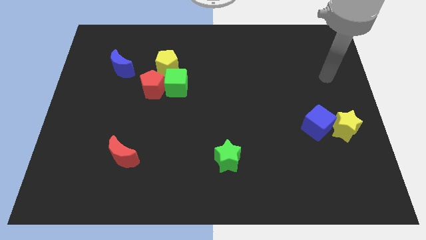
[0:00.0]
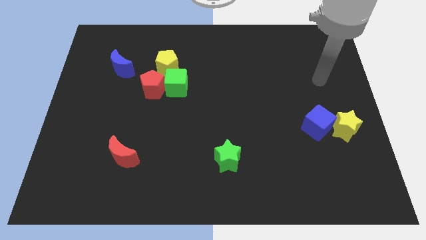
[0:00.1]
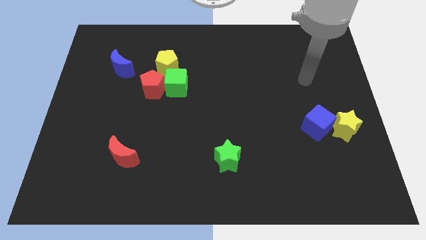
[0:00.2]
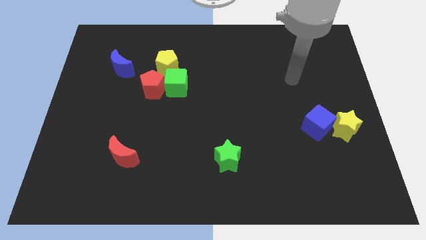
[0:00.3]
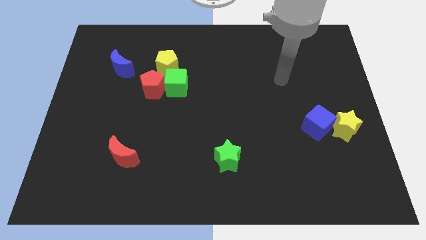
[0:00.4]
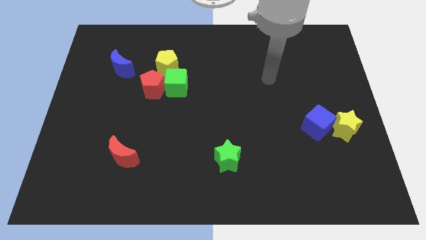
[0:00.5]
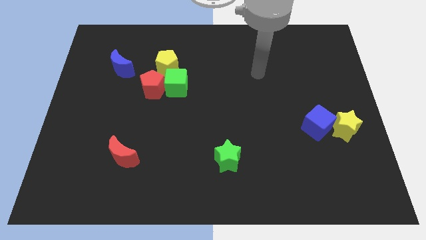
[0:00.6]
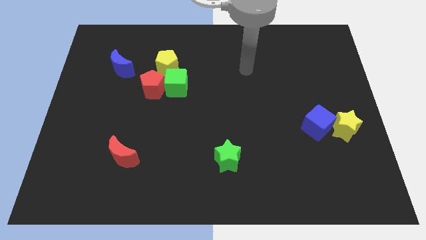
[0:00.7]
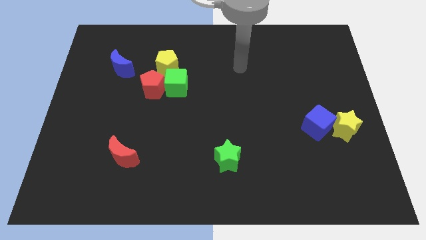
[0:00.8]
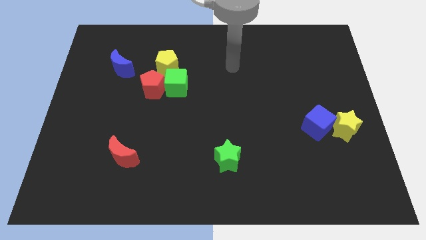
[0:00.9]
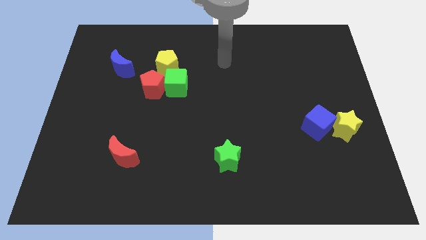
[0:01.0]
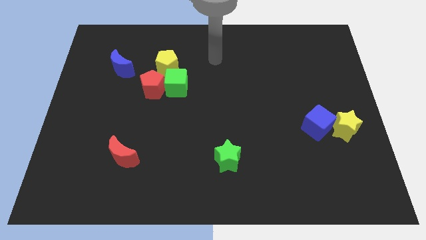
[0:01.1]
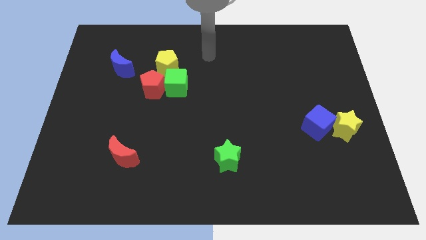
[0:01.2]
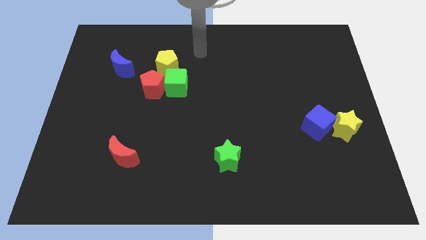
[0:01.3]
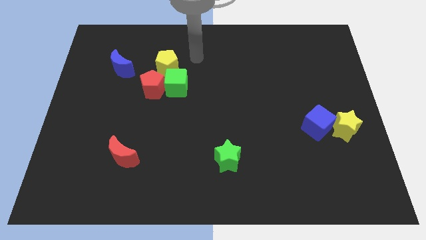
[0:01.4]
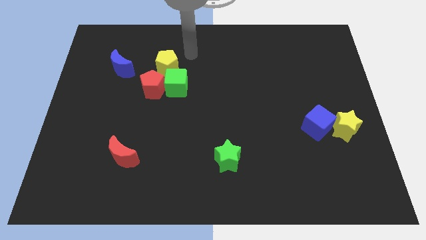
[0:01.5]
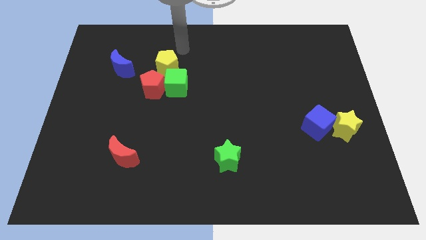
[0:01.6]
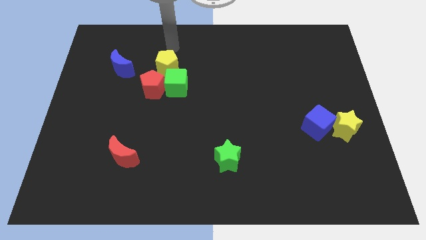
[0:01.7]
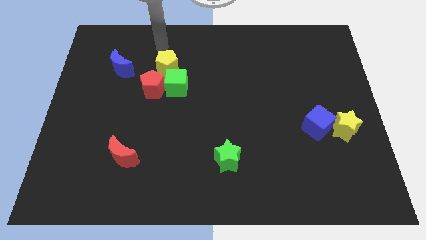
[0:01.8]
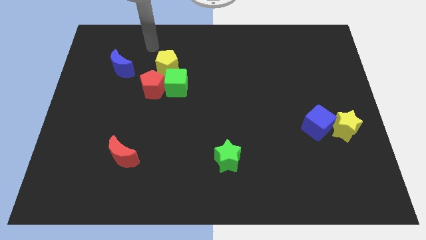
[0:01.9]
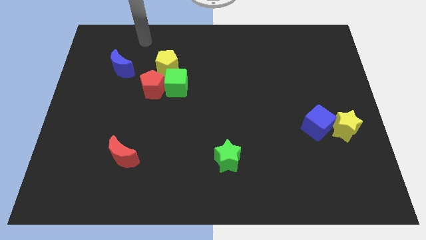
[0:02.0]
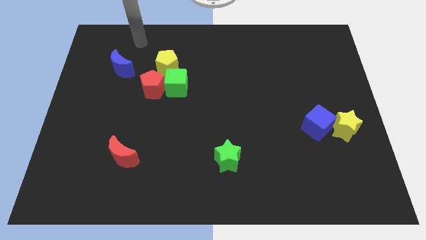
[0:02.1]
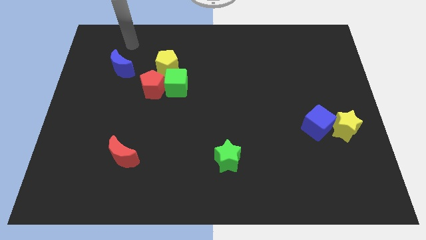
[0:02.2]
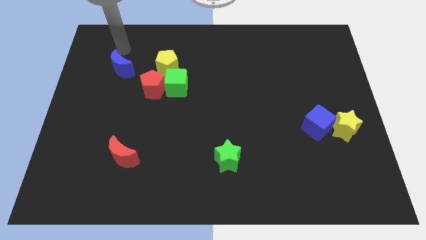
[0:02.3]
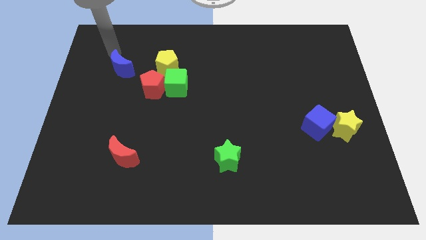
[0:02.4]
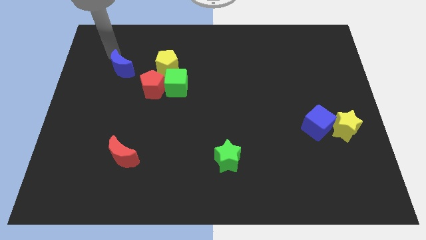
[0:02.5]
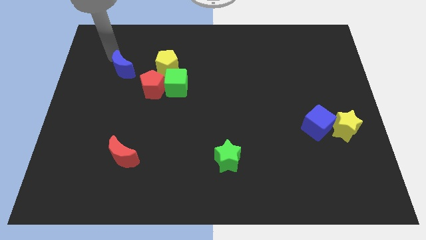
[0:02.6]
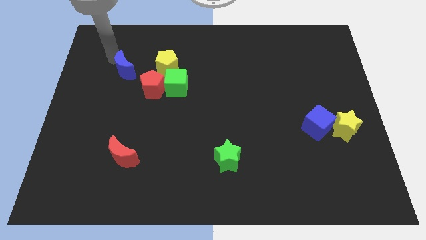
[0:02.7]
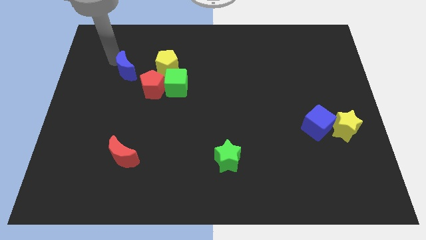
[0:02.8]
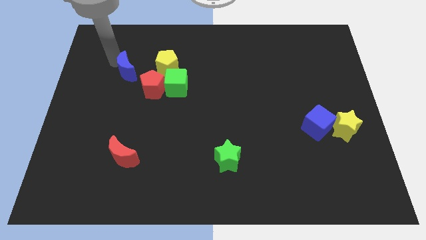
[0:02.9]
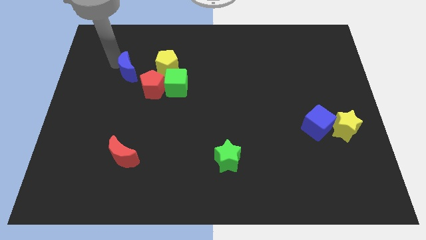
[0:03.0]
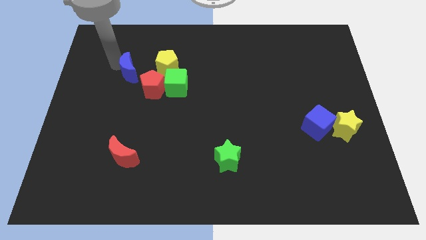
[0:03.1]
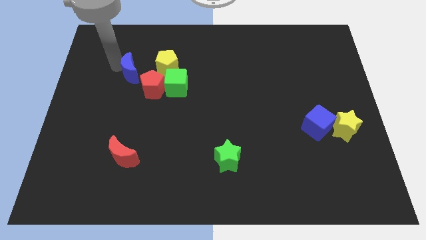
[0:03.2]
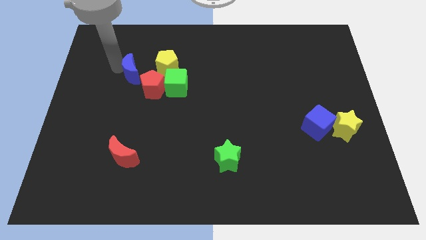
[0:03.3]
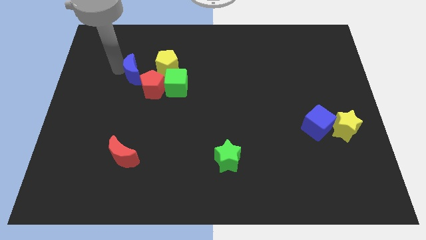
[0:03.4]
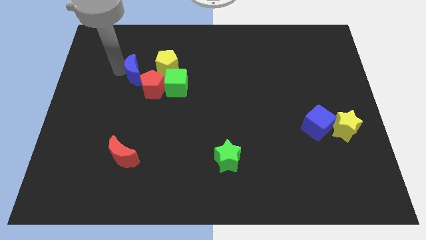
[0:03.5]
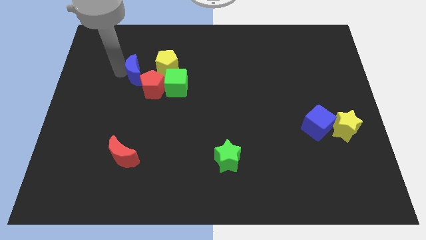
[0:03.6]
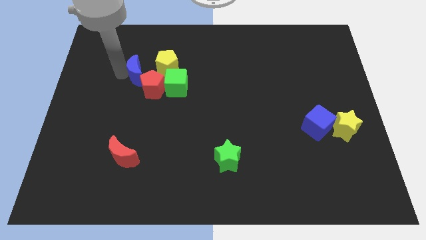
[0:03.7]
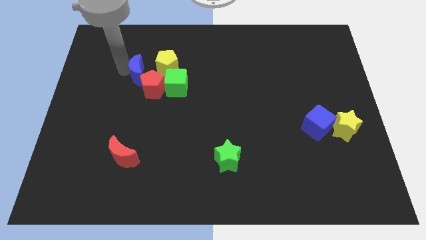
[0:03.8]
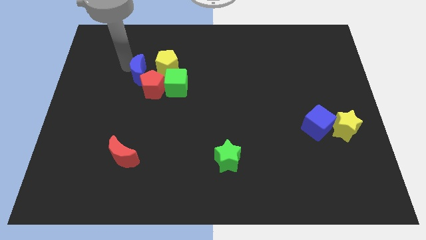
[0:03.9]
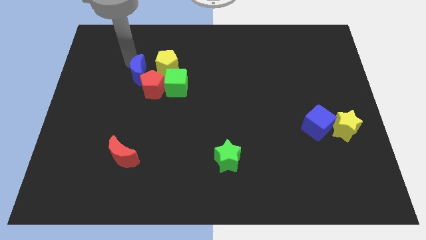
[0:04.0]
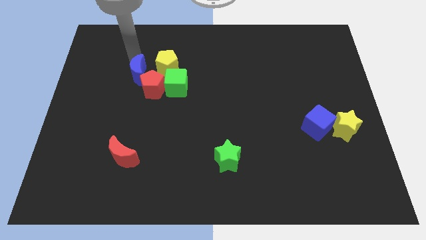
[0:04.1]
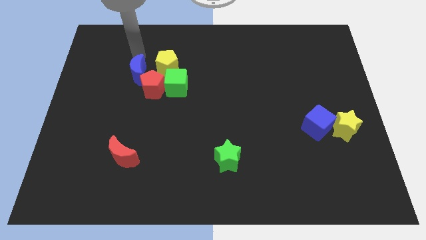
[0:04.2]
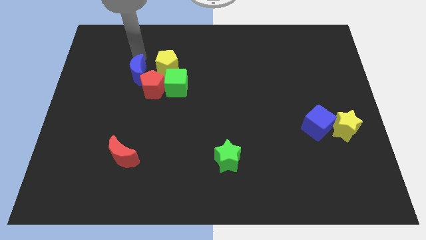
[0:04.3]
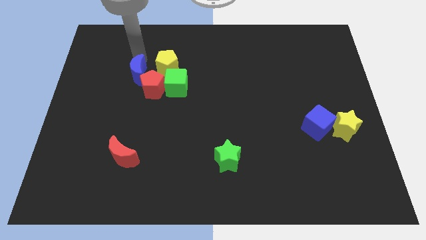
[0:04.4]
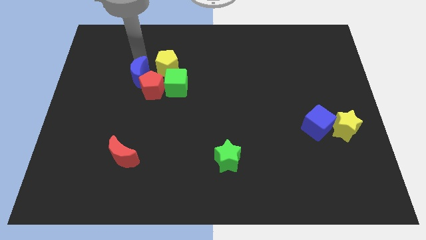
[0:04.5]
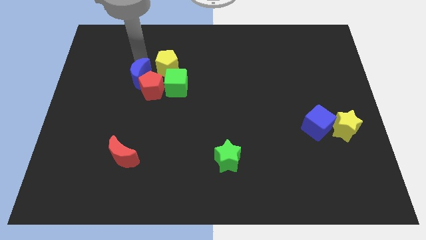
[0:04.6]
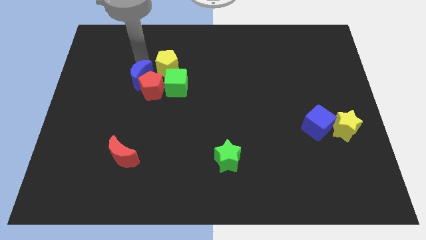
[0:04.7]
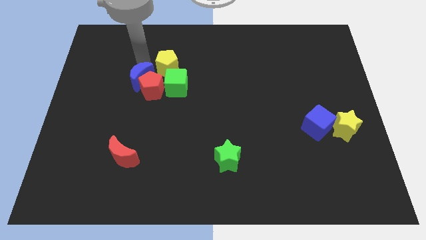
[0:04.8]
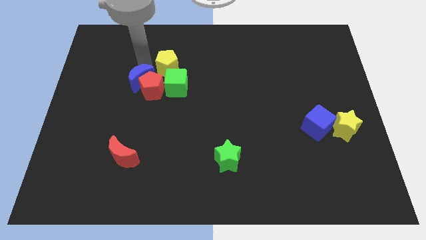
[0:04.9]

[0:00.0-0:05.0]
slide the blue moon downwards and then right a bit

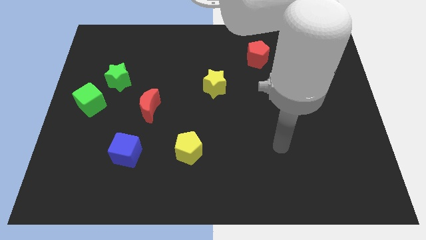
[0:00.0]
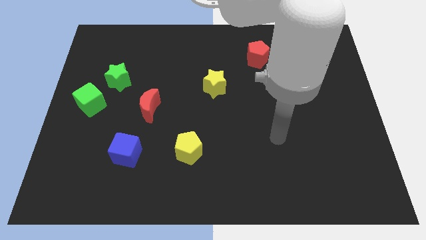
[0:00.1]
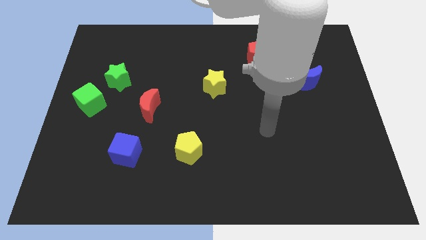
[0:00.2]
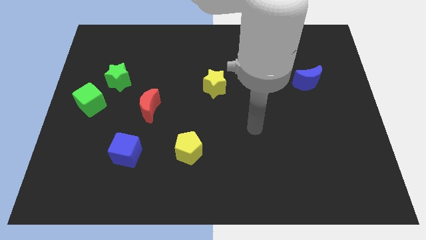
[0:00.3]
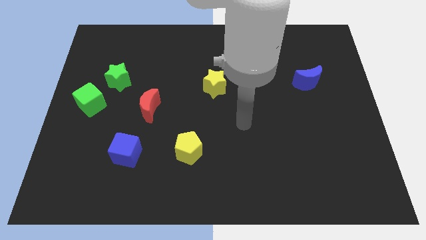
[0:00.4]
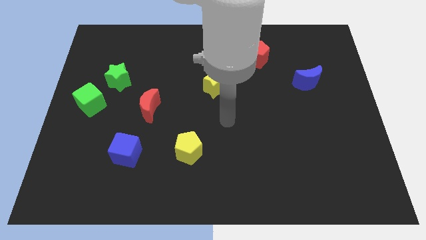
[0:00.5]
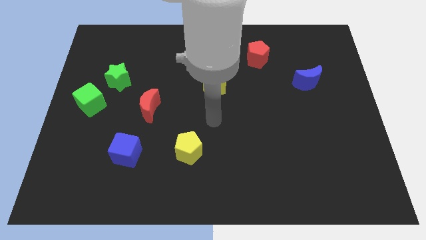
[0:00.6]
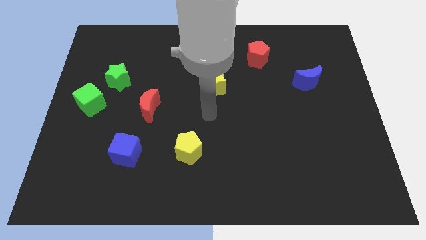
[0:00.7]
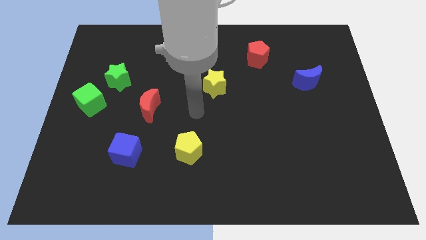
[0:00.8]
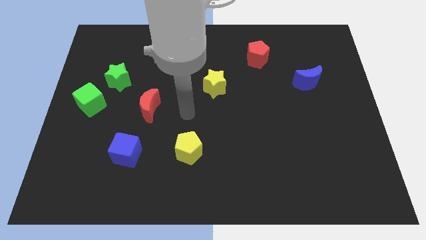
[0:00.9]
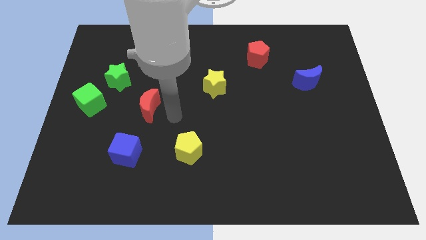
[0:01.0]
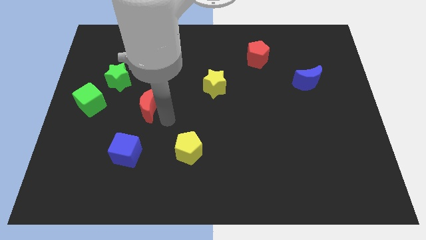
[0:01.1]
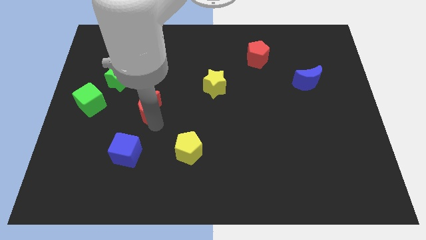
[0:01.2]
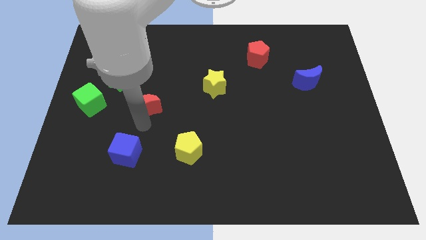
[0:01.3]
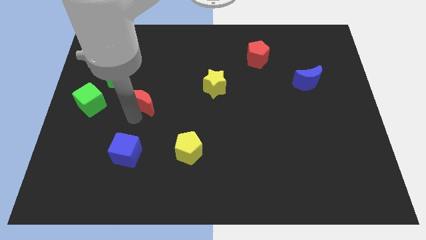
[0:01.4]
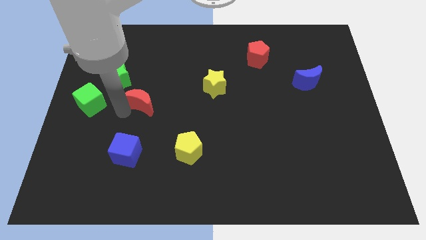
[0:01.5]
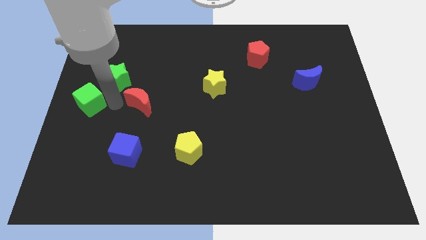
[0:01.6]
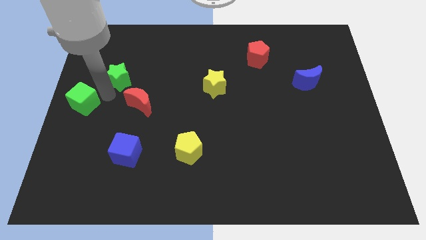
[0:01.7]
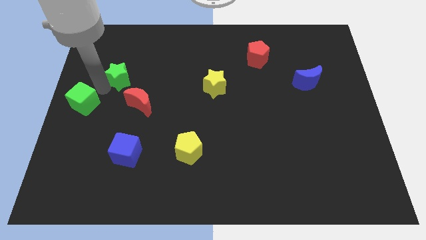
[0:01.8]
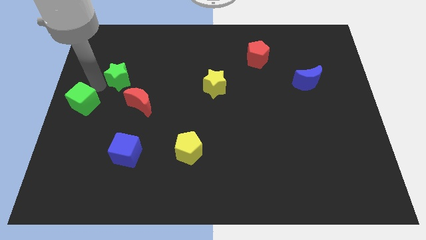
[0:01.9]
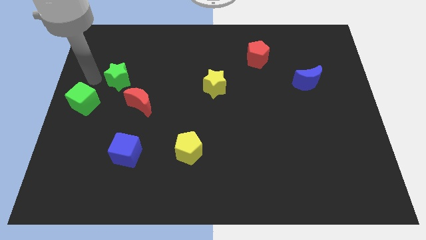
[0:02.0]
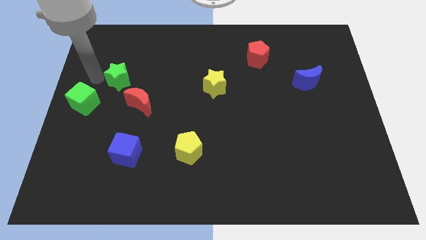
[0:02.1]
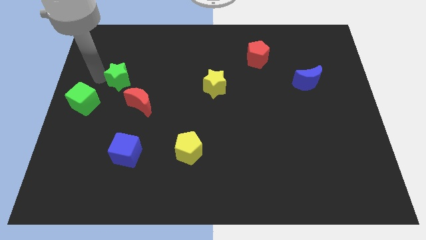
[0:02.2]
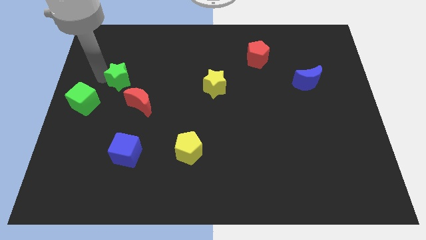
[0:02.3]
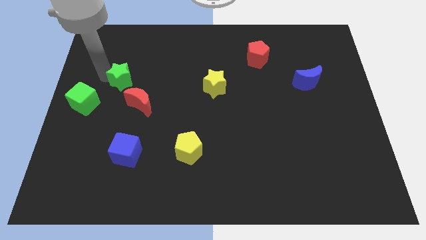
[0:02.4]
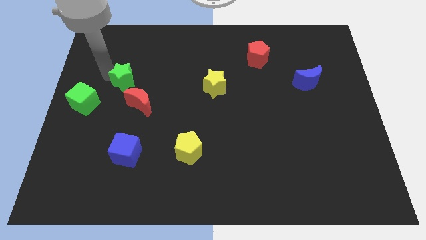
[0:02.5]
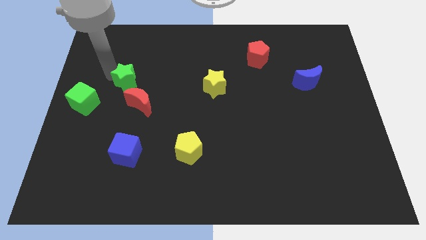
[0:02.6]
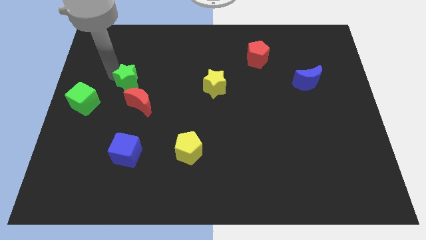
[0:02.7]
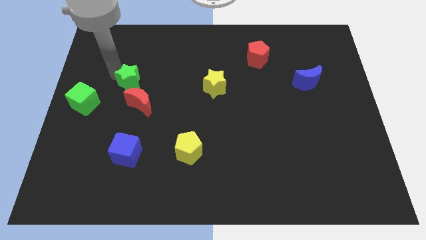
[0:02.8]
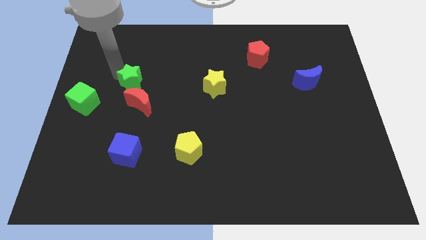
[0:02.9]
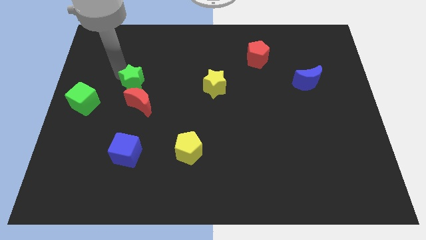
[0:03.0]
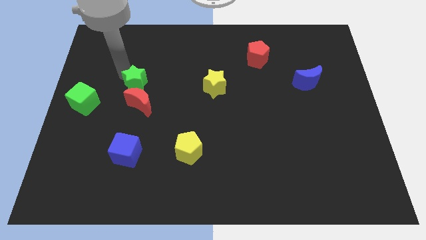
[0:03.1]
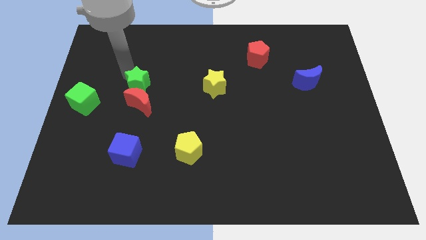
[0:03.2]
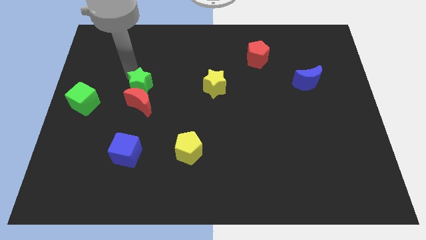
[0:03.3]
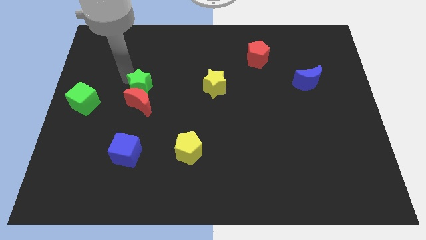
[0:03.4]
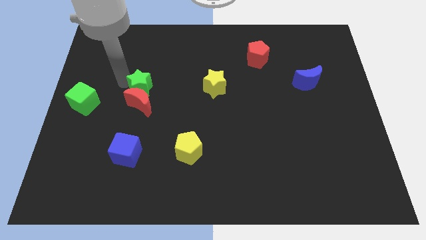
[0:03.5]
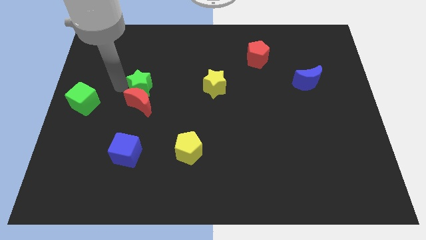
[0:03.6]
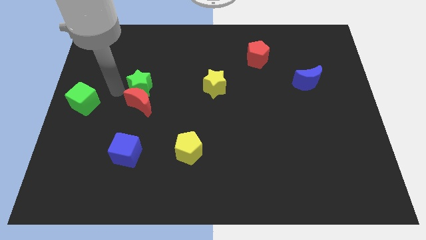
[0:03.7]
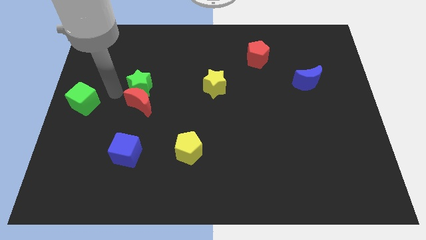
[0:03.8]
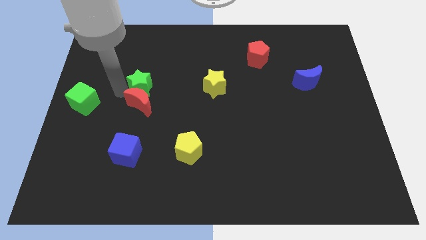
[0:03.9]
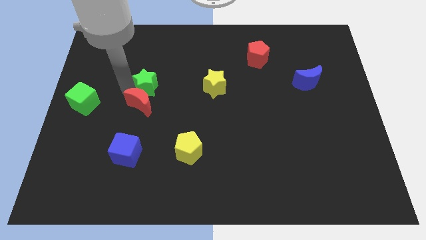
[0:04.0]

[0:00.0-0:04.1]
move the green star to the right a bit
